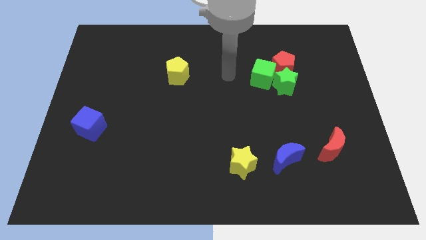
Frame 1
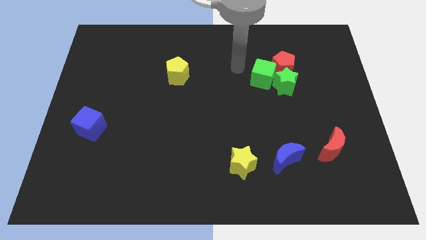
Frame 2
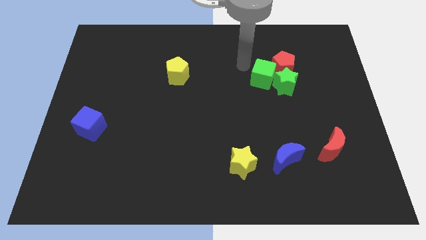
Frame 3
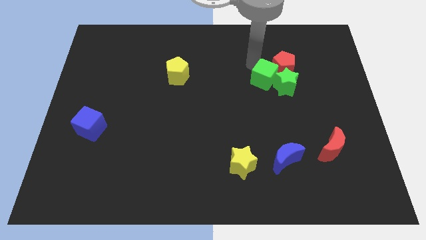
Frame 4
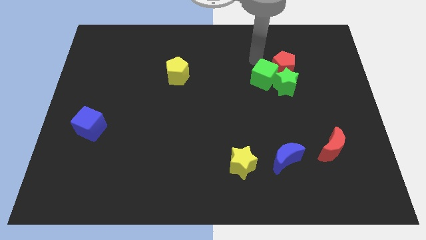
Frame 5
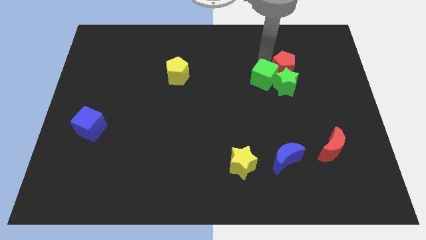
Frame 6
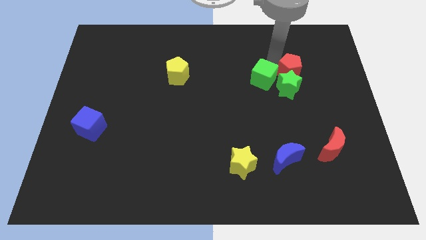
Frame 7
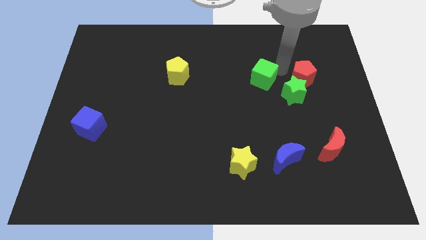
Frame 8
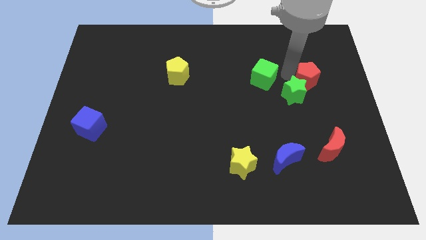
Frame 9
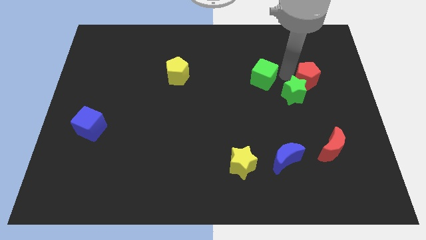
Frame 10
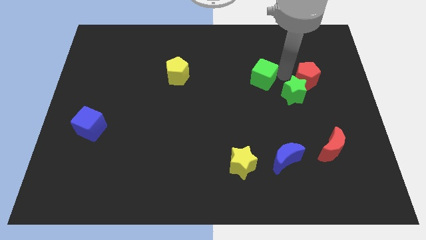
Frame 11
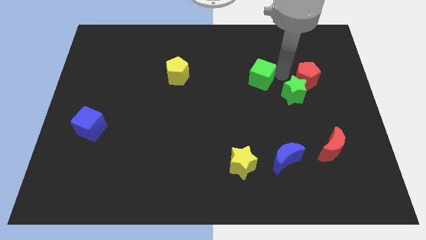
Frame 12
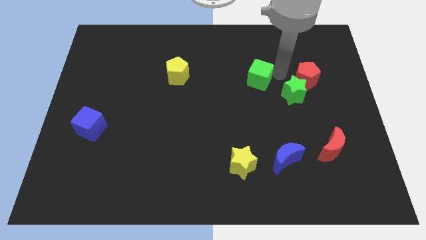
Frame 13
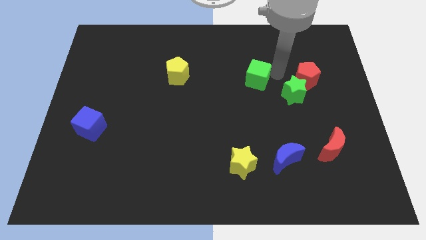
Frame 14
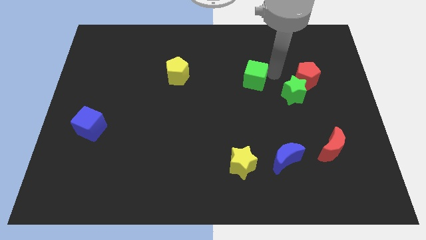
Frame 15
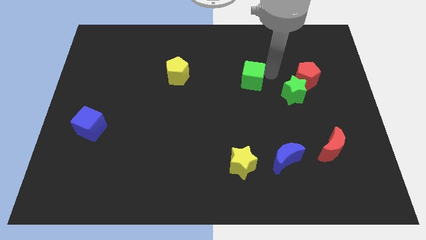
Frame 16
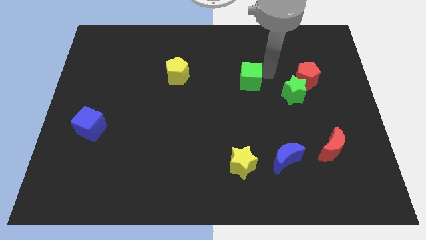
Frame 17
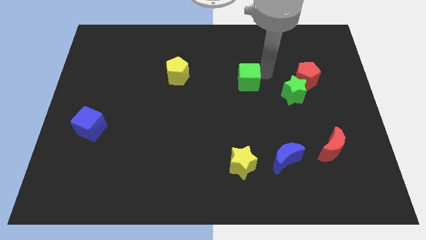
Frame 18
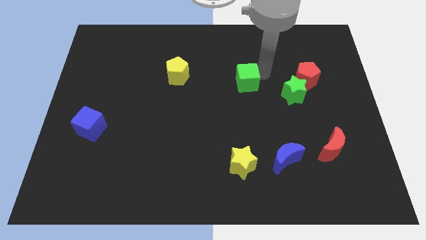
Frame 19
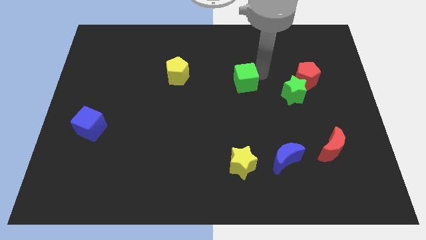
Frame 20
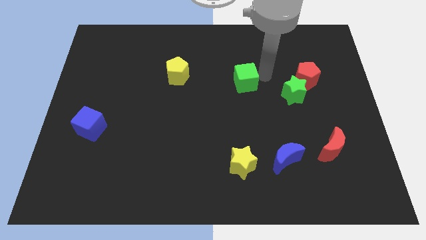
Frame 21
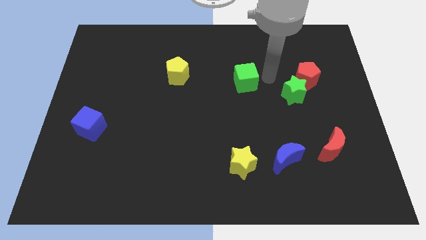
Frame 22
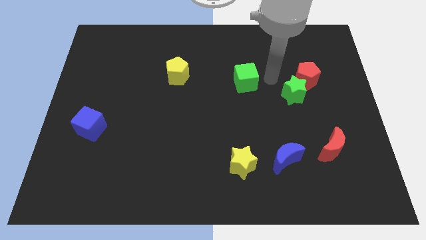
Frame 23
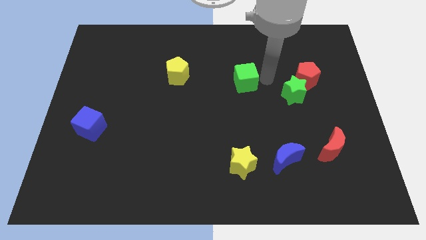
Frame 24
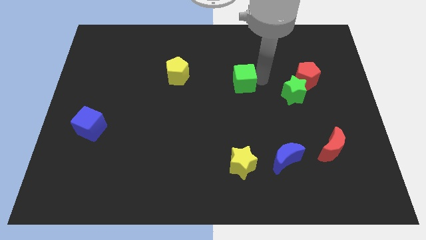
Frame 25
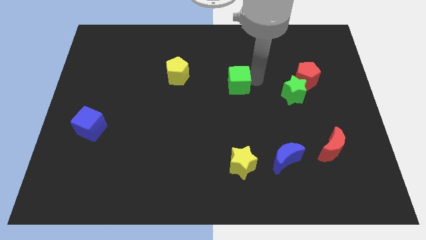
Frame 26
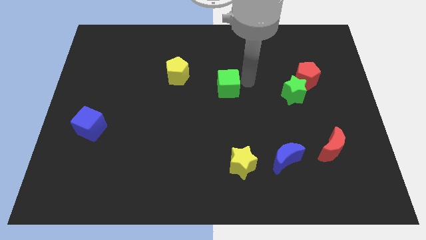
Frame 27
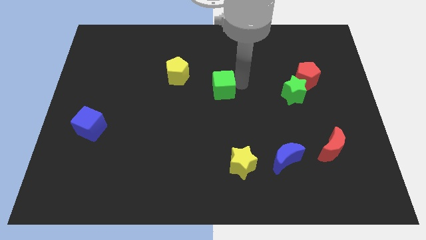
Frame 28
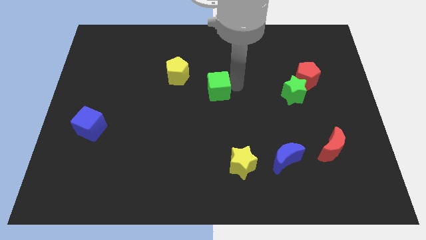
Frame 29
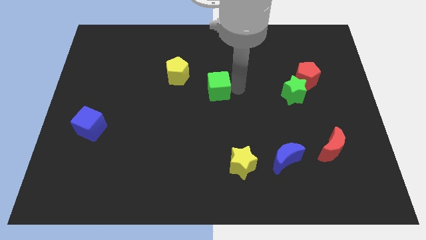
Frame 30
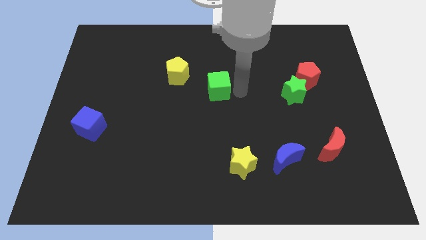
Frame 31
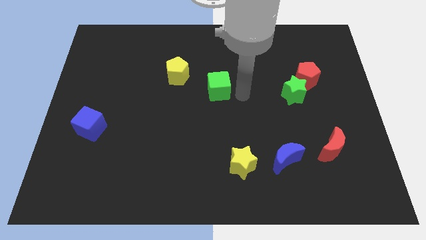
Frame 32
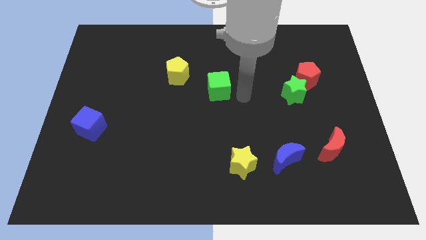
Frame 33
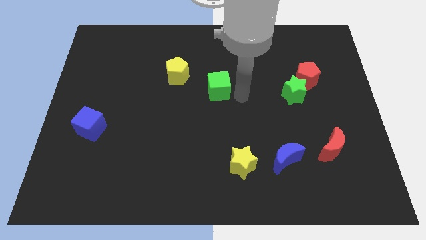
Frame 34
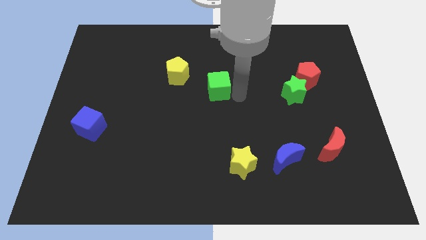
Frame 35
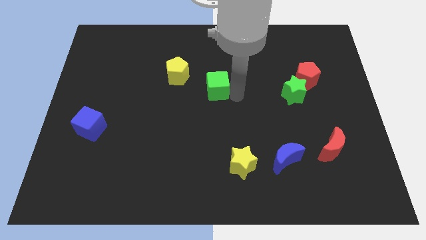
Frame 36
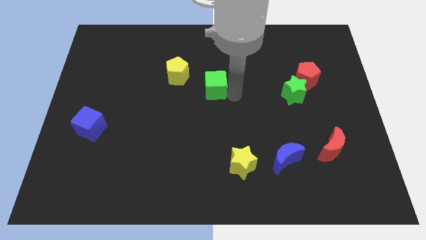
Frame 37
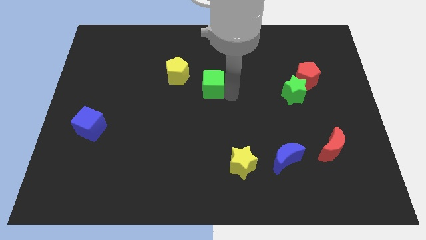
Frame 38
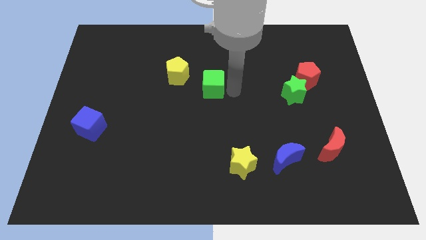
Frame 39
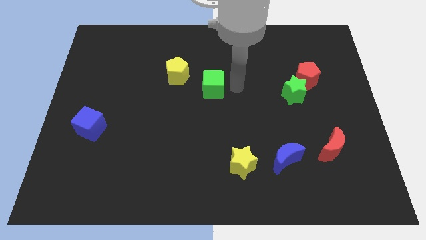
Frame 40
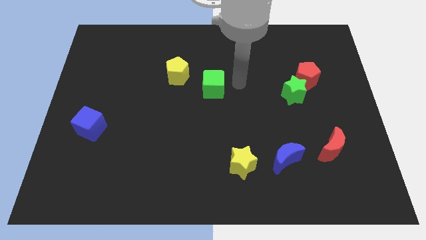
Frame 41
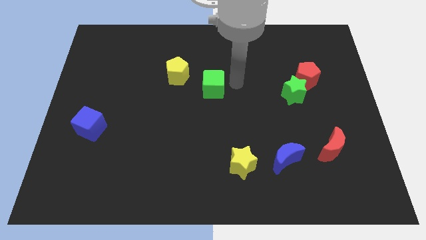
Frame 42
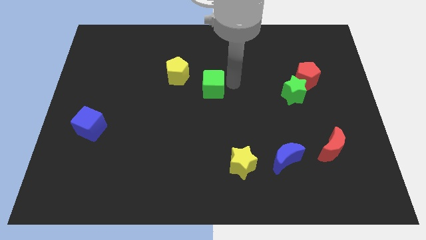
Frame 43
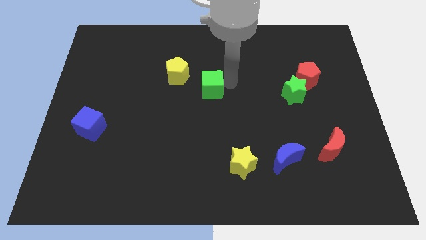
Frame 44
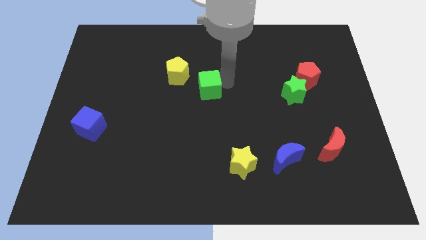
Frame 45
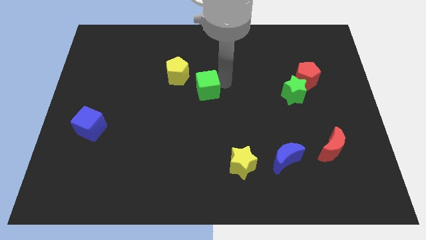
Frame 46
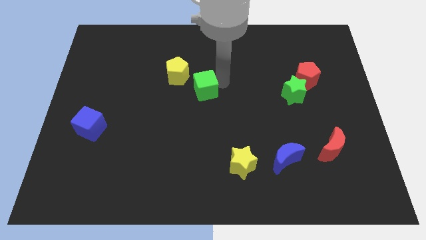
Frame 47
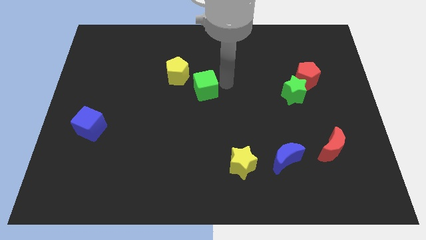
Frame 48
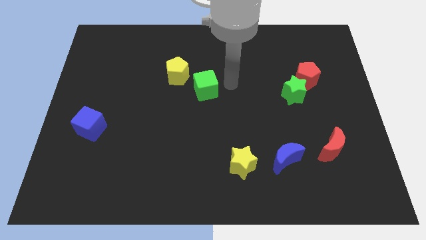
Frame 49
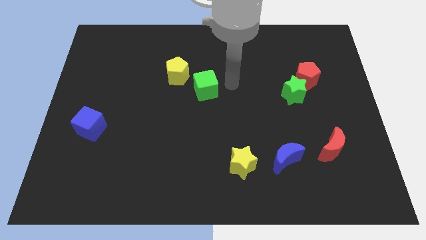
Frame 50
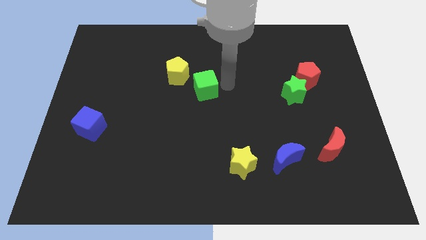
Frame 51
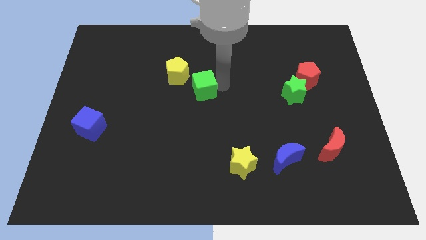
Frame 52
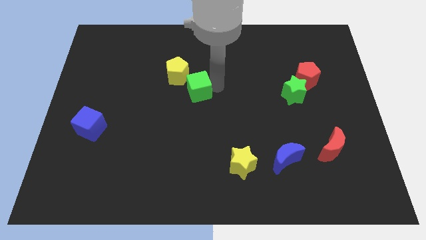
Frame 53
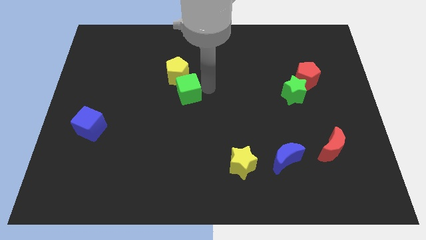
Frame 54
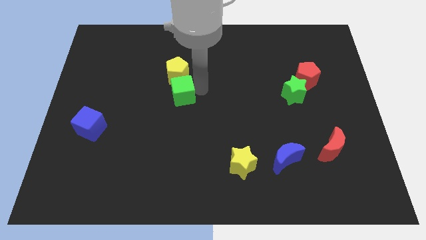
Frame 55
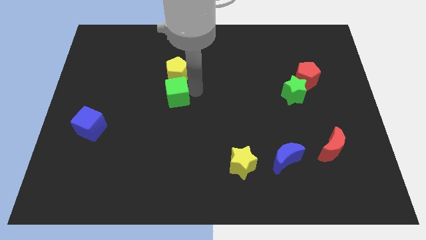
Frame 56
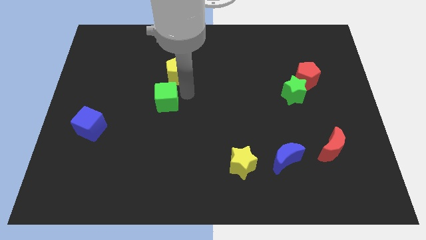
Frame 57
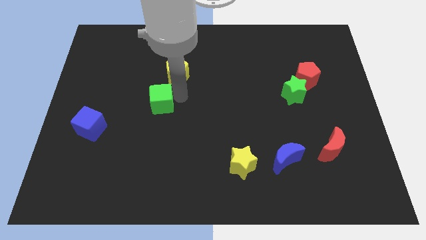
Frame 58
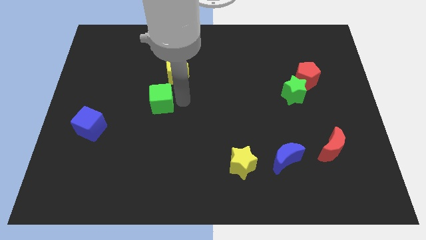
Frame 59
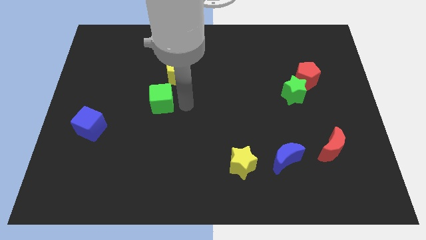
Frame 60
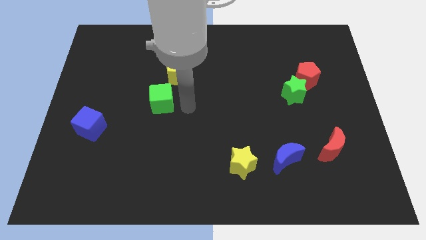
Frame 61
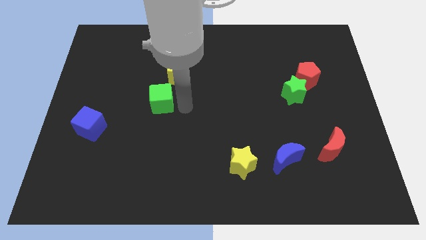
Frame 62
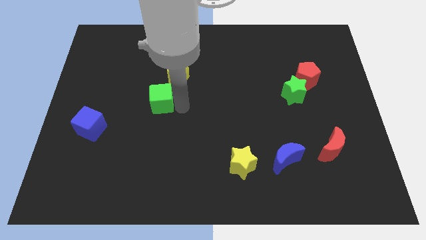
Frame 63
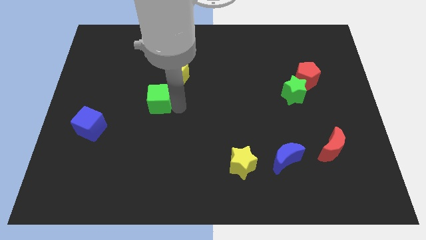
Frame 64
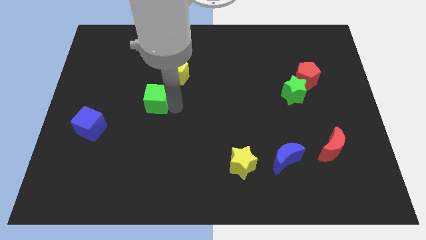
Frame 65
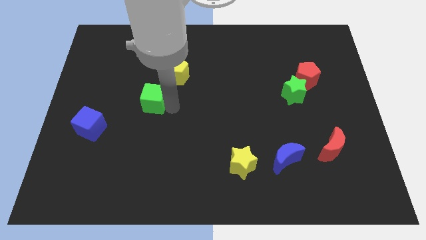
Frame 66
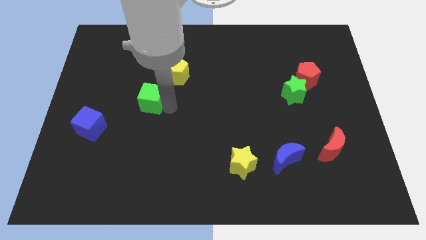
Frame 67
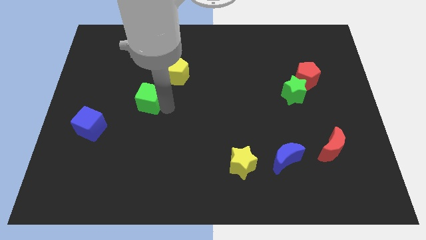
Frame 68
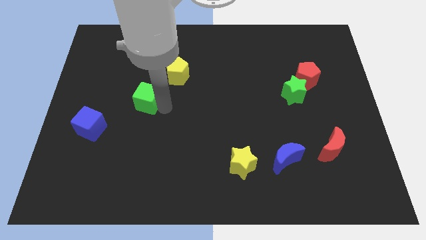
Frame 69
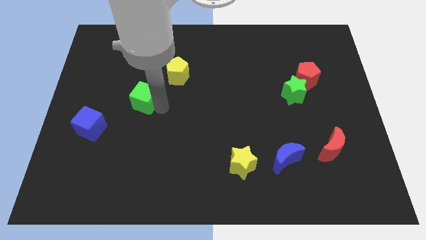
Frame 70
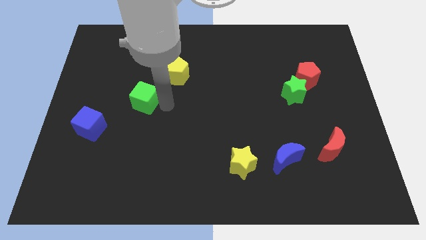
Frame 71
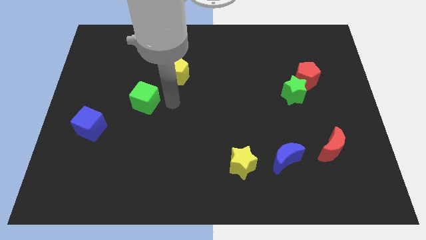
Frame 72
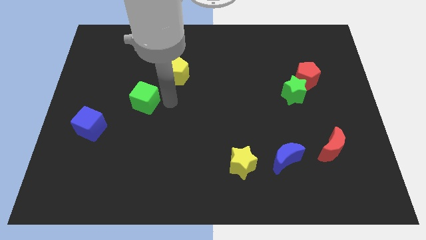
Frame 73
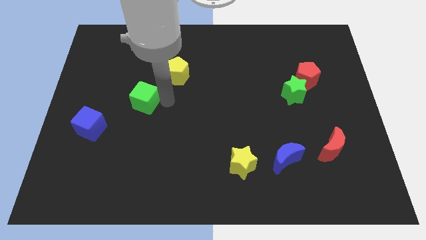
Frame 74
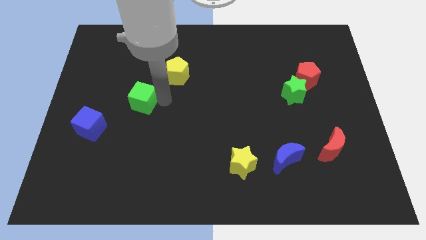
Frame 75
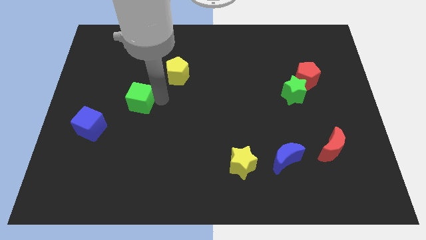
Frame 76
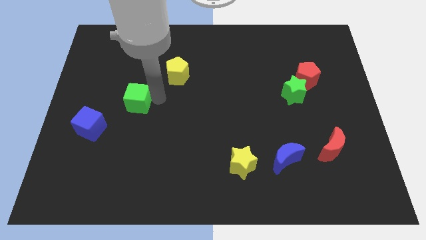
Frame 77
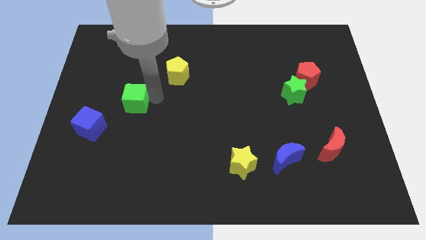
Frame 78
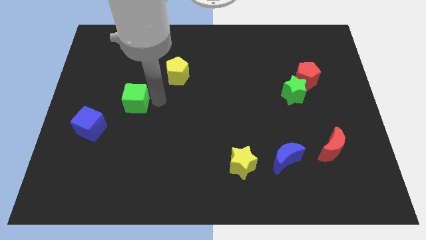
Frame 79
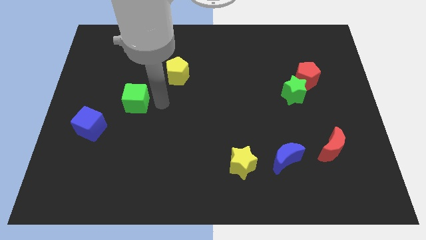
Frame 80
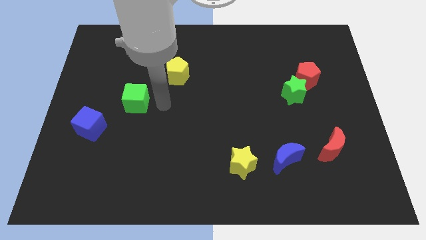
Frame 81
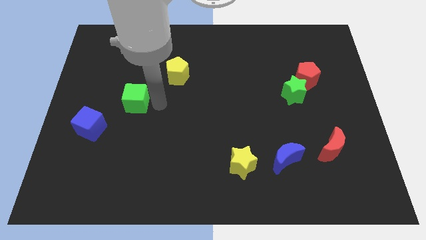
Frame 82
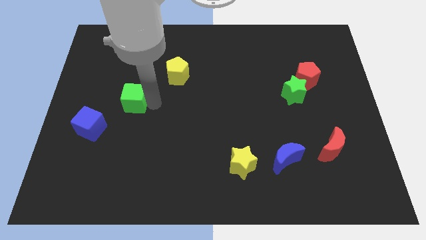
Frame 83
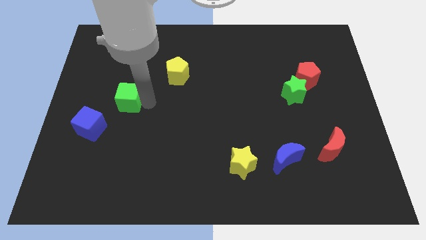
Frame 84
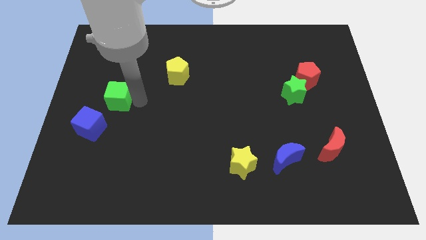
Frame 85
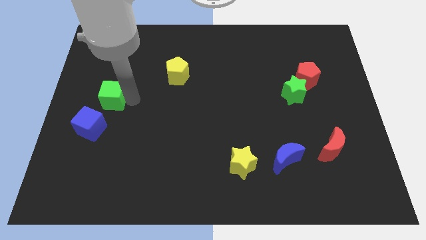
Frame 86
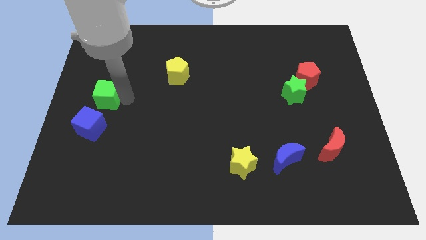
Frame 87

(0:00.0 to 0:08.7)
push the green cube to the left side of the board
